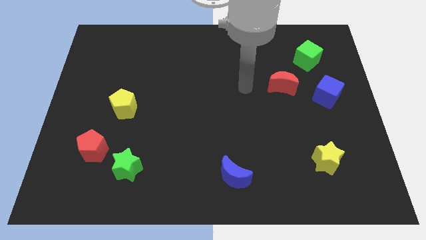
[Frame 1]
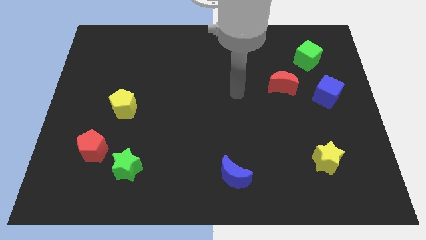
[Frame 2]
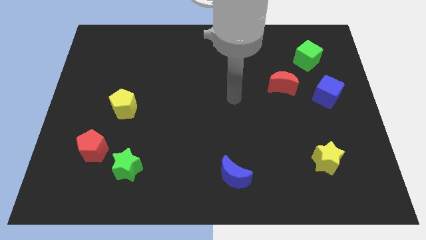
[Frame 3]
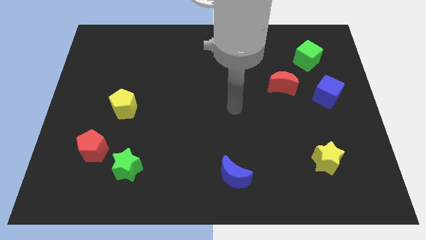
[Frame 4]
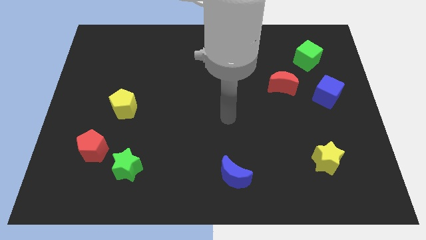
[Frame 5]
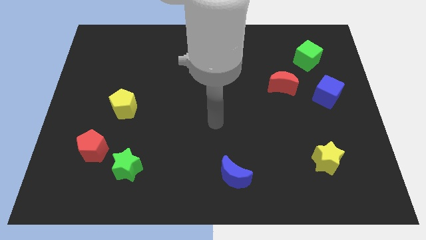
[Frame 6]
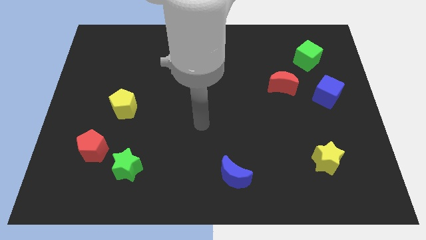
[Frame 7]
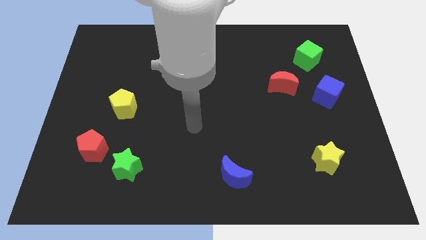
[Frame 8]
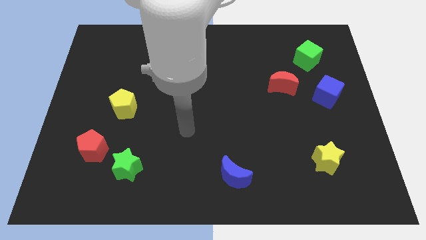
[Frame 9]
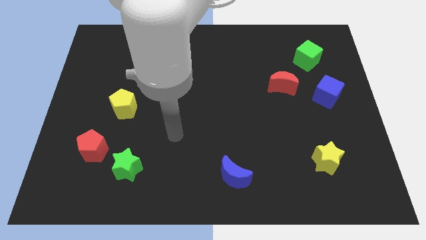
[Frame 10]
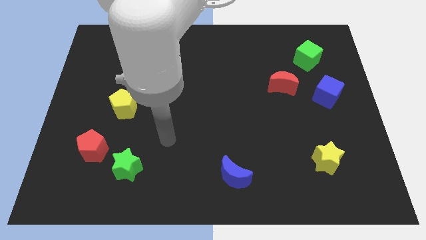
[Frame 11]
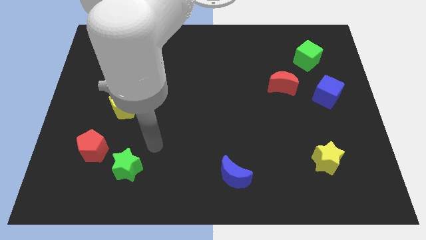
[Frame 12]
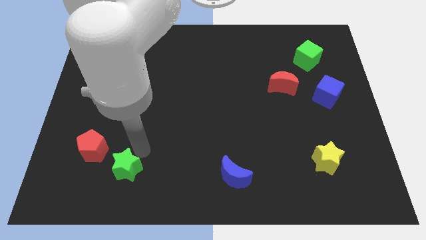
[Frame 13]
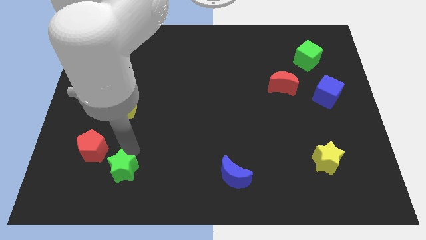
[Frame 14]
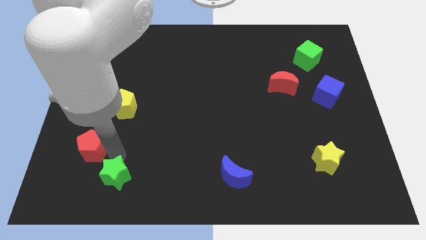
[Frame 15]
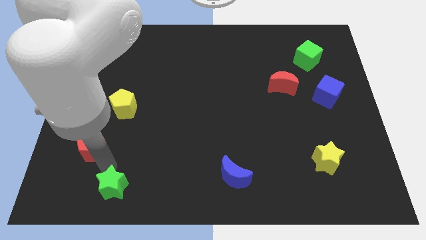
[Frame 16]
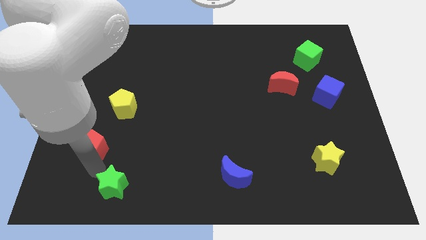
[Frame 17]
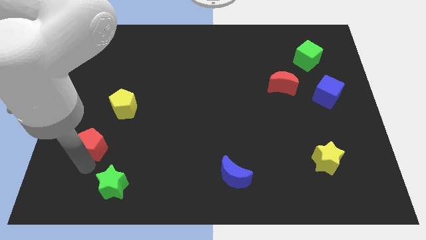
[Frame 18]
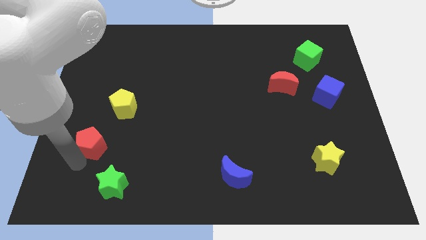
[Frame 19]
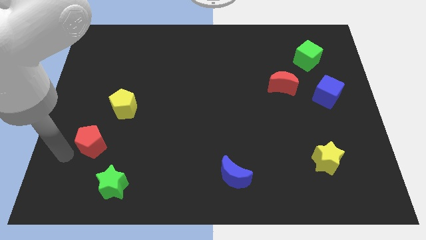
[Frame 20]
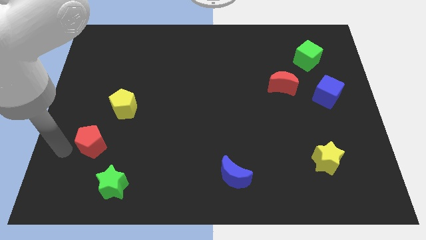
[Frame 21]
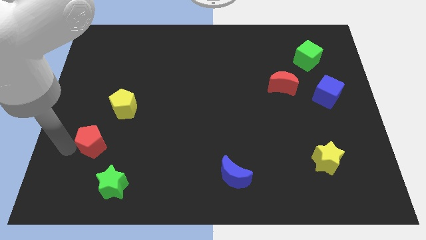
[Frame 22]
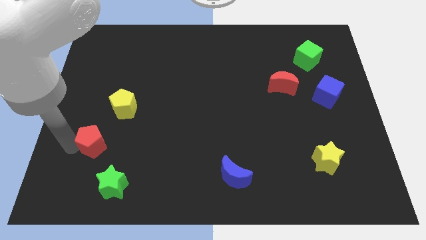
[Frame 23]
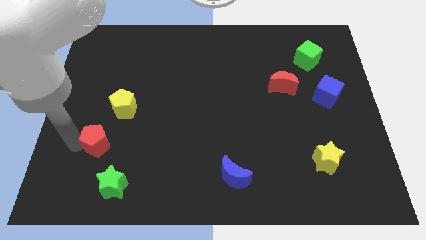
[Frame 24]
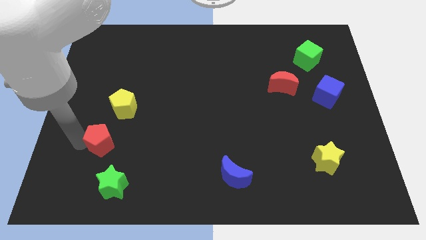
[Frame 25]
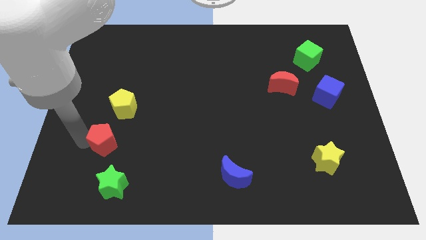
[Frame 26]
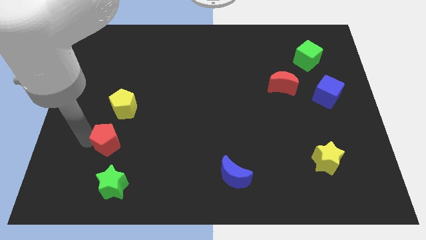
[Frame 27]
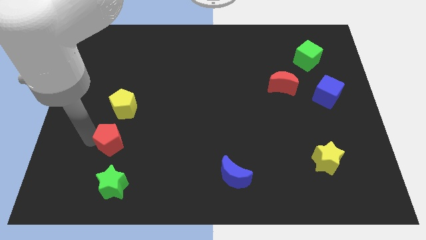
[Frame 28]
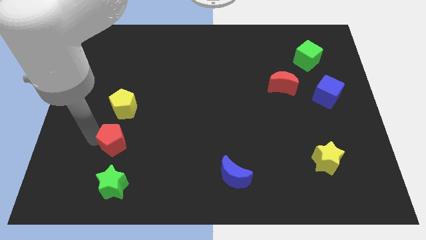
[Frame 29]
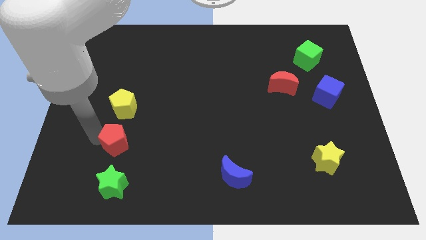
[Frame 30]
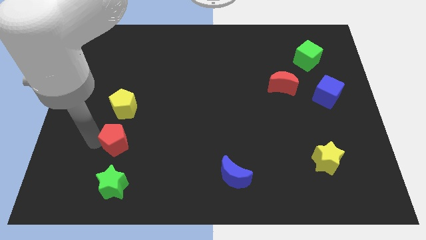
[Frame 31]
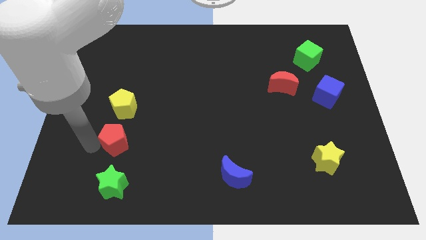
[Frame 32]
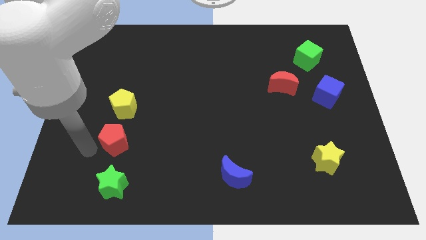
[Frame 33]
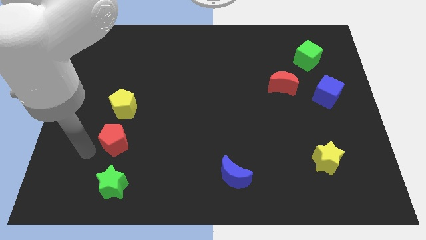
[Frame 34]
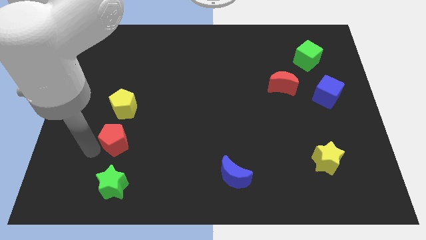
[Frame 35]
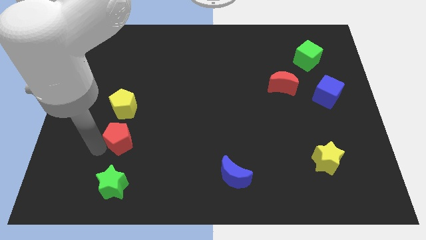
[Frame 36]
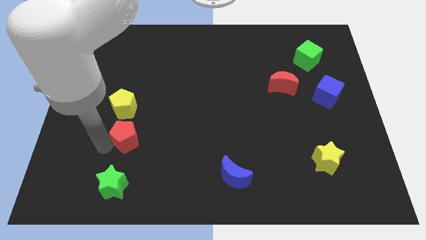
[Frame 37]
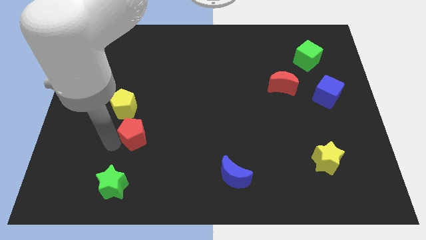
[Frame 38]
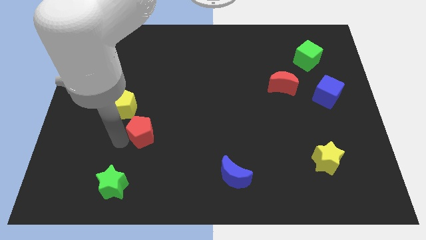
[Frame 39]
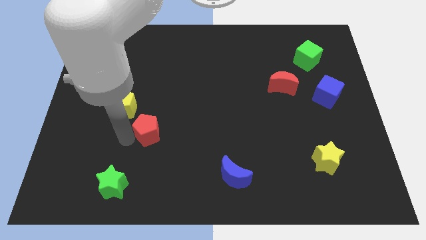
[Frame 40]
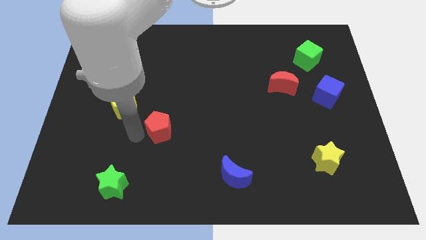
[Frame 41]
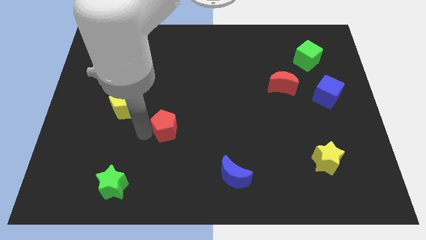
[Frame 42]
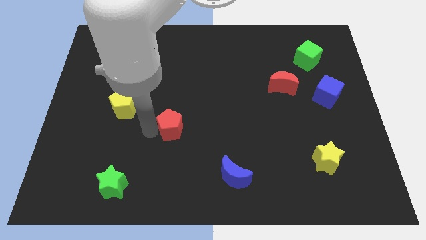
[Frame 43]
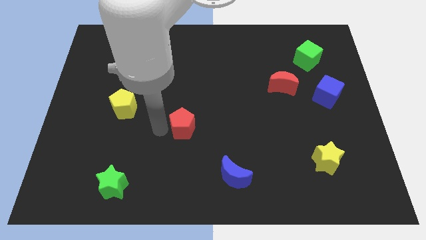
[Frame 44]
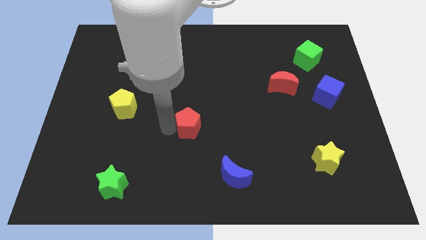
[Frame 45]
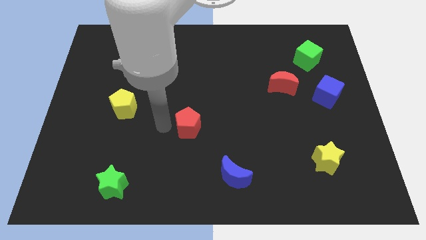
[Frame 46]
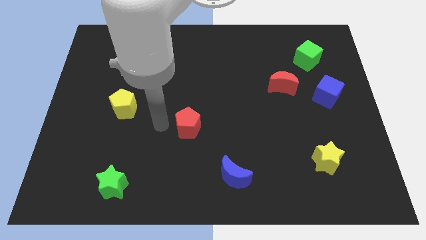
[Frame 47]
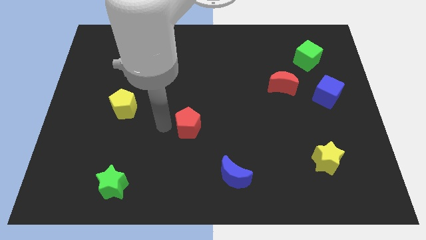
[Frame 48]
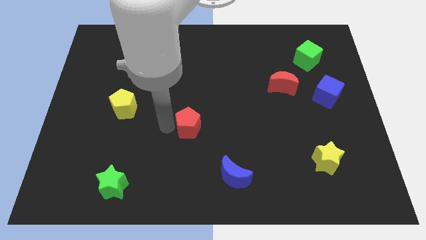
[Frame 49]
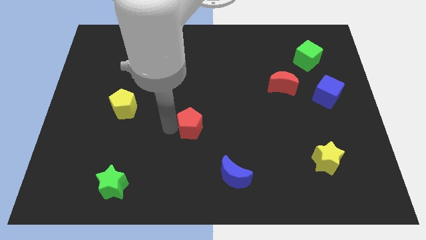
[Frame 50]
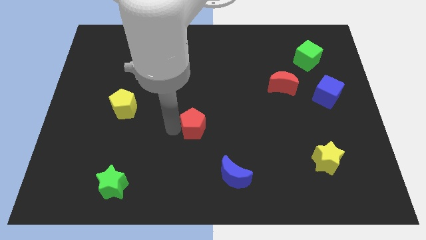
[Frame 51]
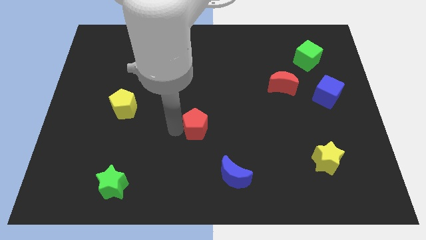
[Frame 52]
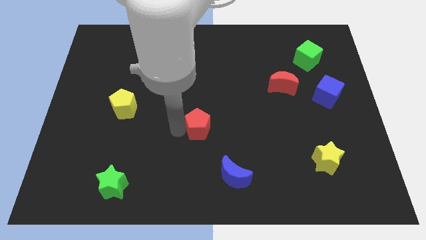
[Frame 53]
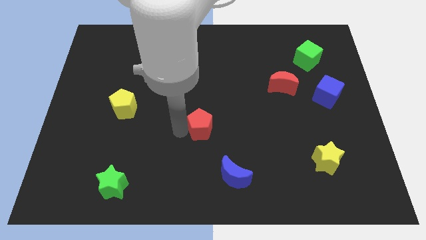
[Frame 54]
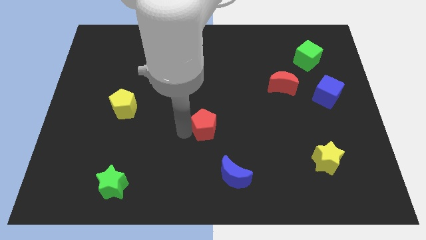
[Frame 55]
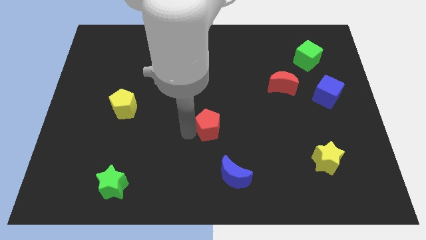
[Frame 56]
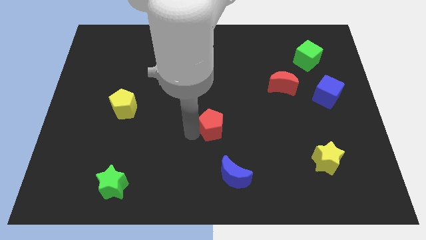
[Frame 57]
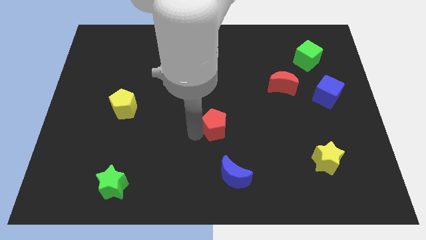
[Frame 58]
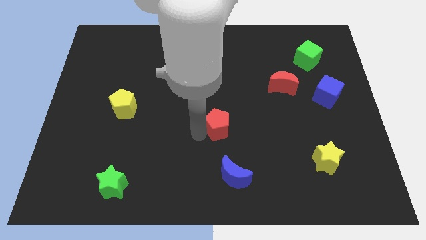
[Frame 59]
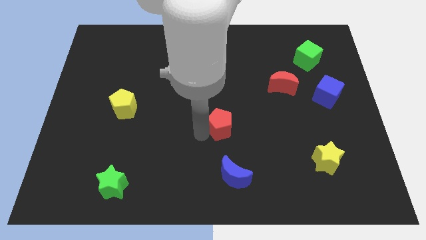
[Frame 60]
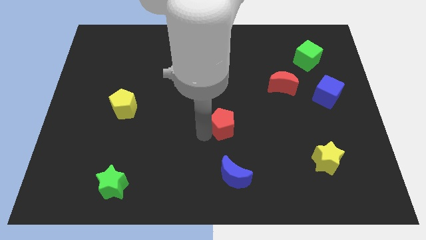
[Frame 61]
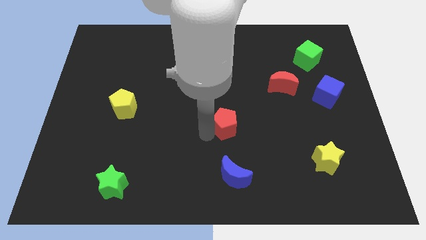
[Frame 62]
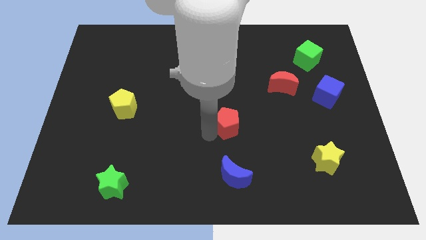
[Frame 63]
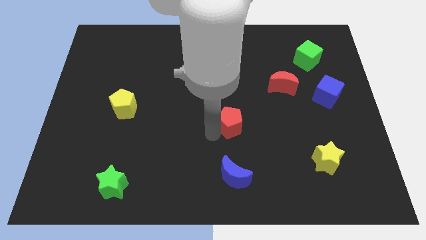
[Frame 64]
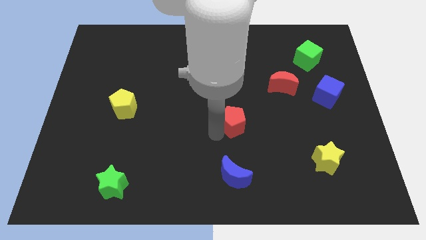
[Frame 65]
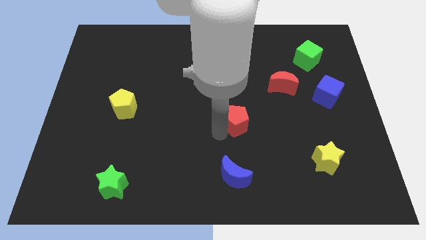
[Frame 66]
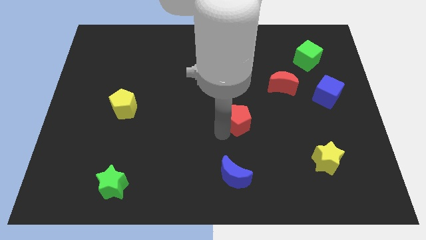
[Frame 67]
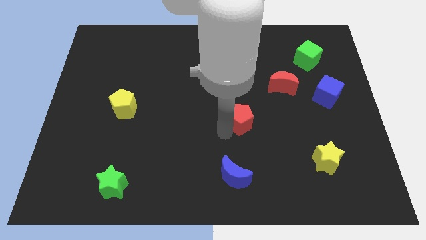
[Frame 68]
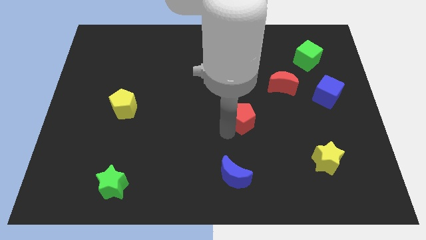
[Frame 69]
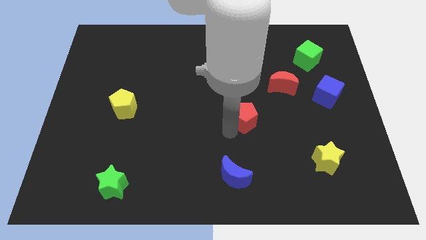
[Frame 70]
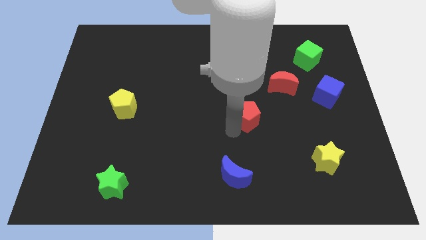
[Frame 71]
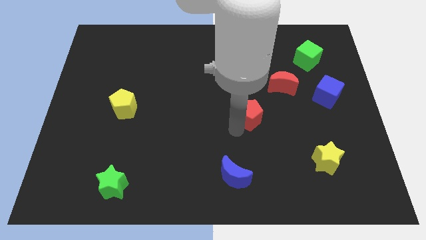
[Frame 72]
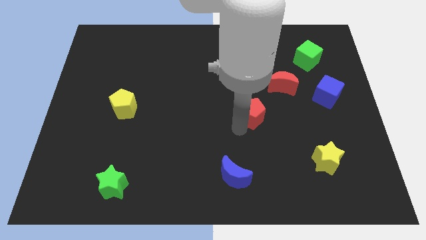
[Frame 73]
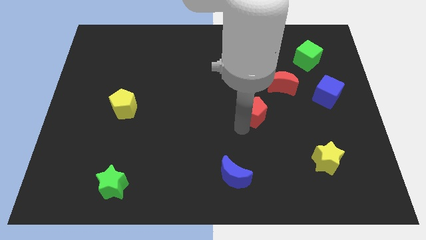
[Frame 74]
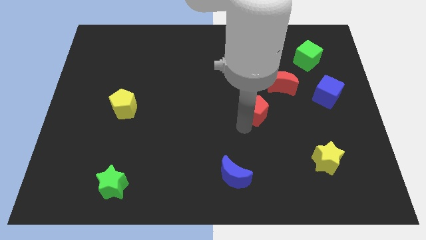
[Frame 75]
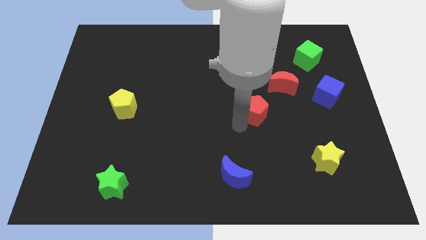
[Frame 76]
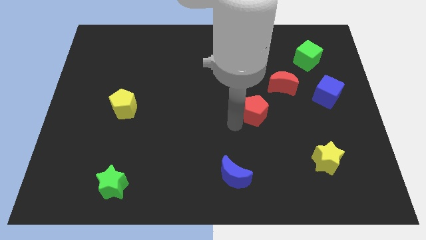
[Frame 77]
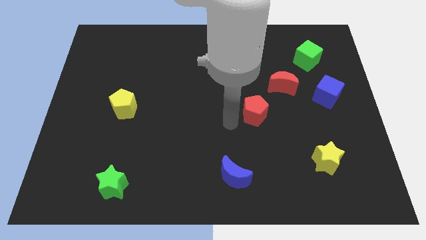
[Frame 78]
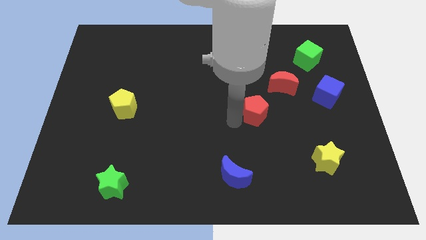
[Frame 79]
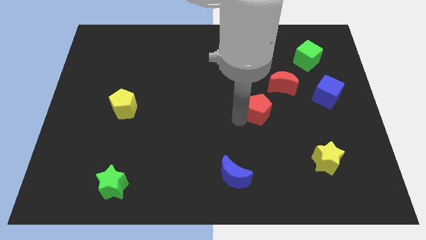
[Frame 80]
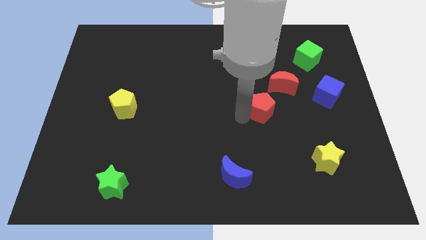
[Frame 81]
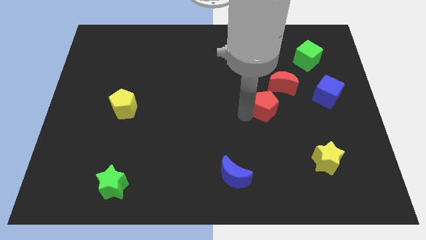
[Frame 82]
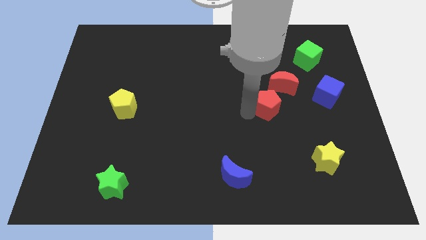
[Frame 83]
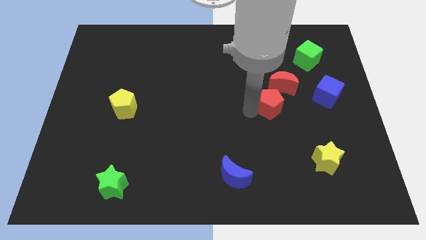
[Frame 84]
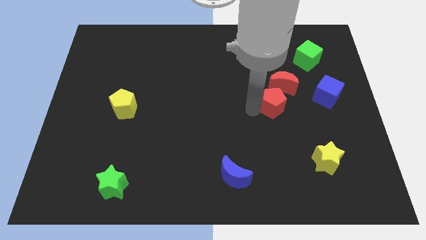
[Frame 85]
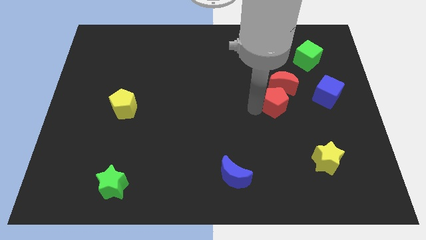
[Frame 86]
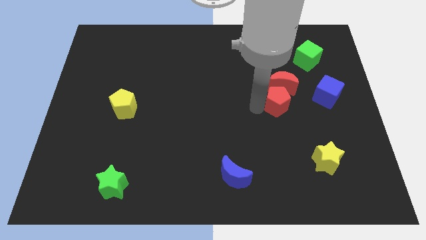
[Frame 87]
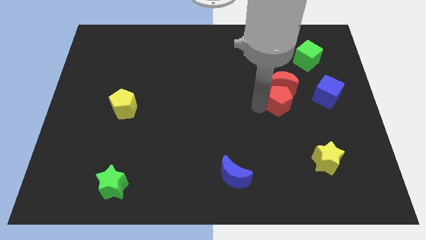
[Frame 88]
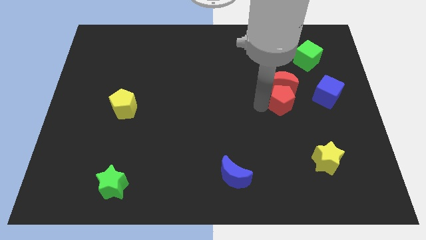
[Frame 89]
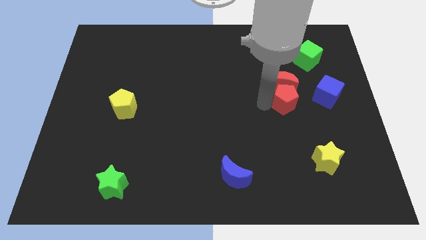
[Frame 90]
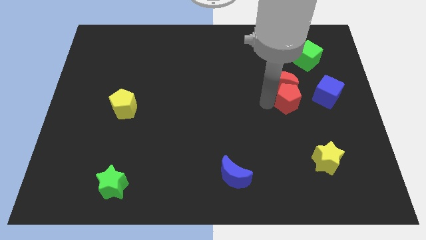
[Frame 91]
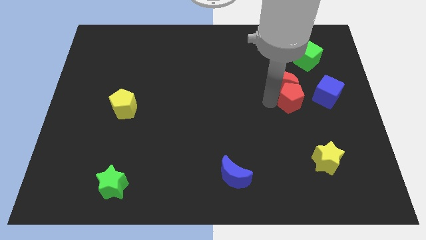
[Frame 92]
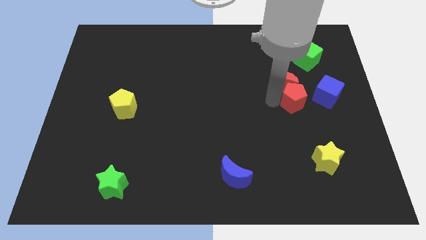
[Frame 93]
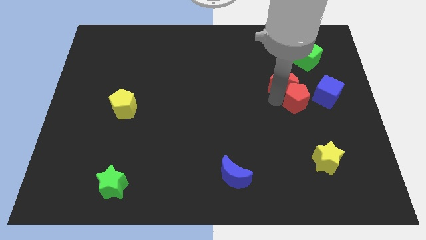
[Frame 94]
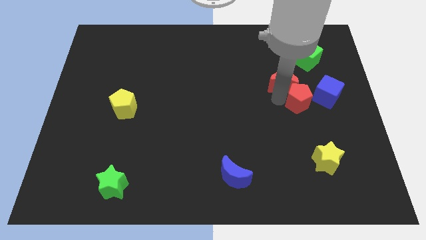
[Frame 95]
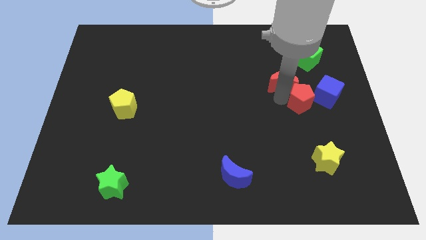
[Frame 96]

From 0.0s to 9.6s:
move the red pentagon to the bottom of the green cube
